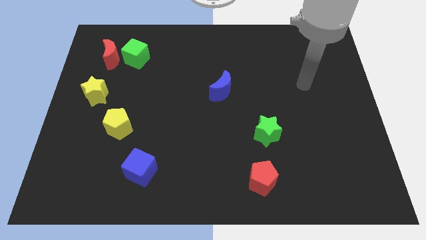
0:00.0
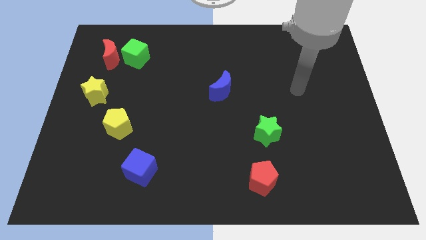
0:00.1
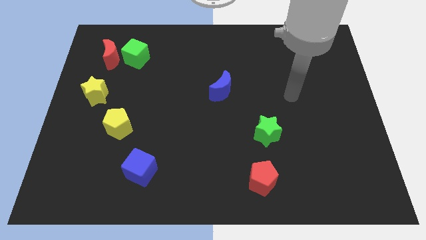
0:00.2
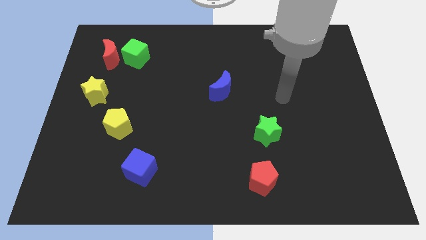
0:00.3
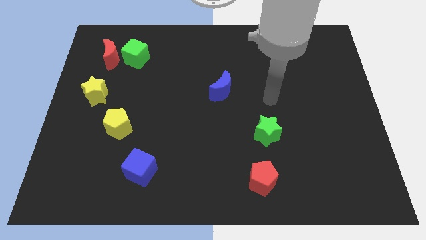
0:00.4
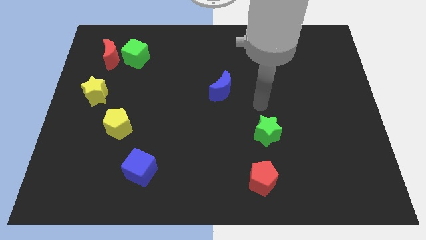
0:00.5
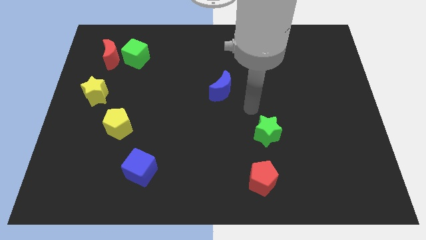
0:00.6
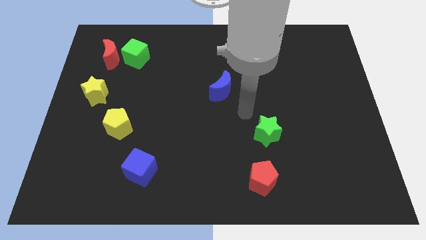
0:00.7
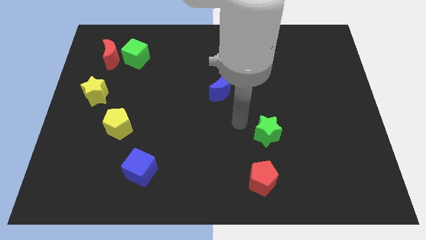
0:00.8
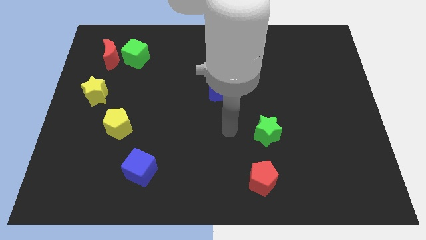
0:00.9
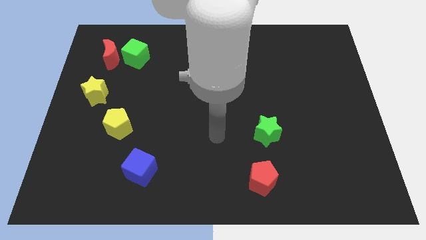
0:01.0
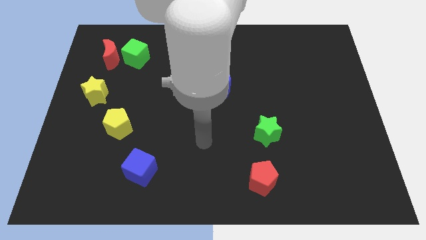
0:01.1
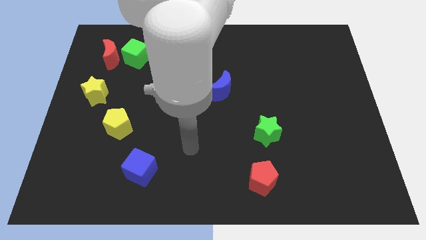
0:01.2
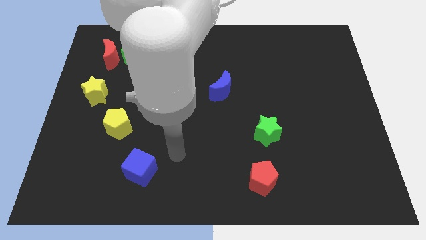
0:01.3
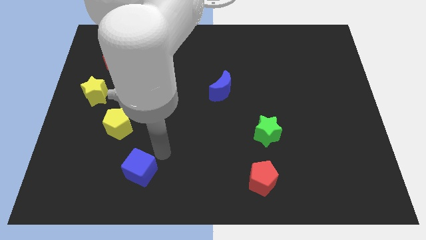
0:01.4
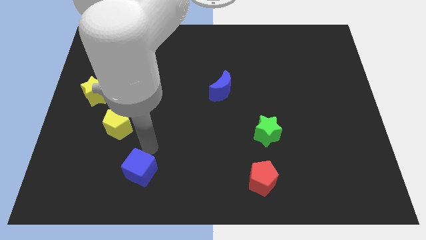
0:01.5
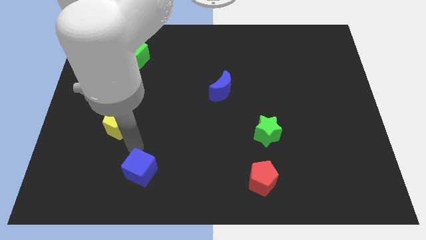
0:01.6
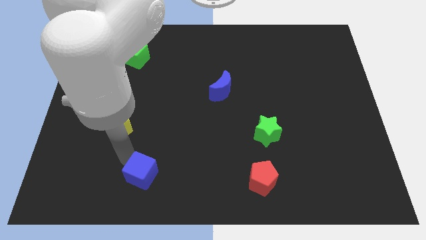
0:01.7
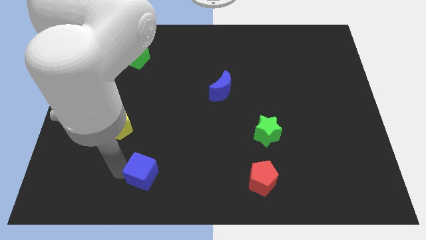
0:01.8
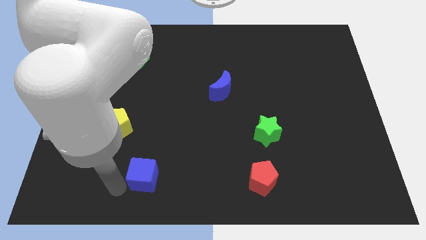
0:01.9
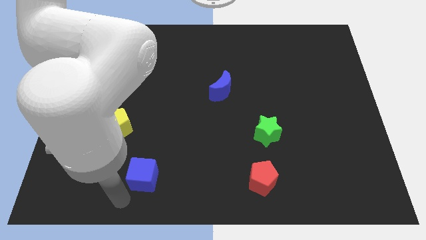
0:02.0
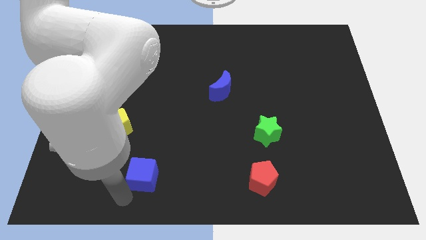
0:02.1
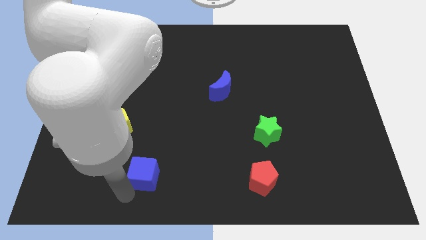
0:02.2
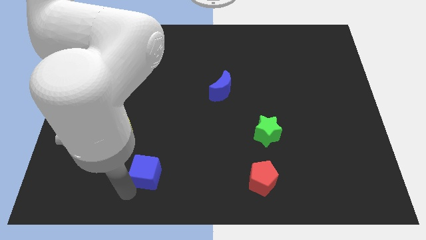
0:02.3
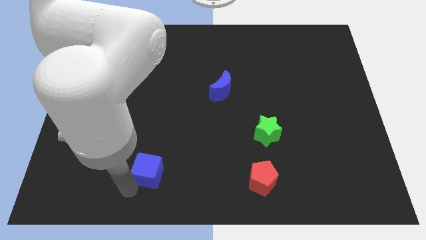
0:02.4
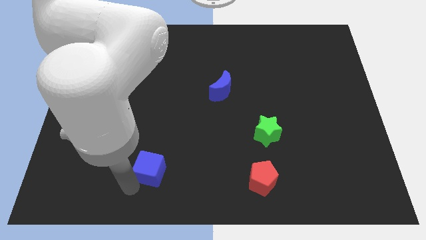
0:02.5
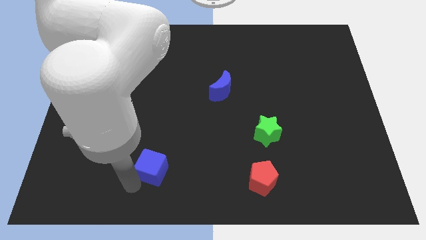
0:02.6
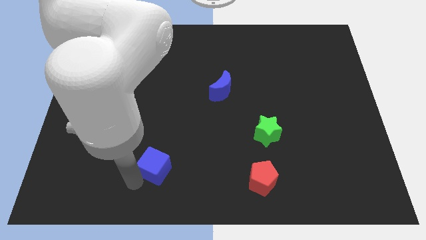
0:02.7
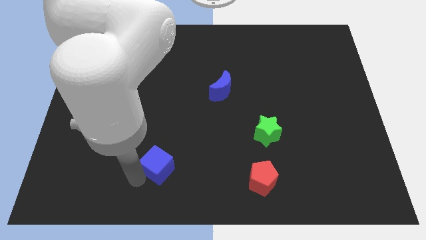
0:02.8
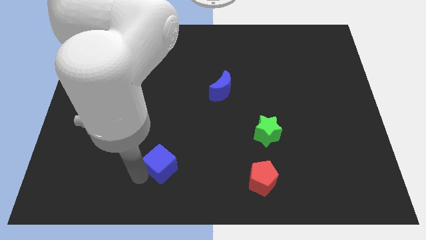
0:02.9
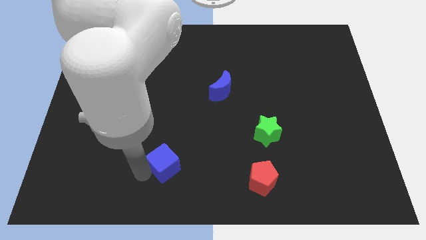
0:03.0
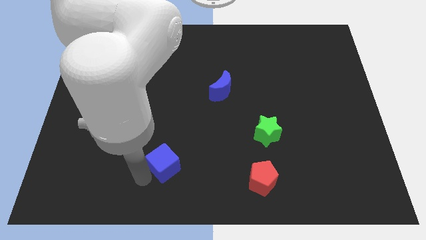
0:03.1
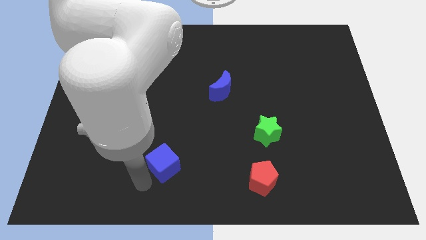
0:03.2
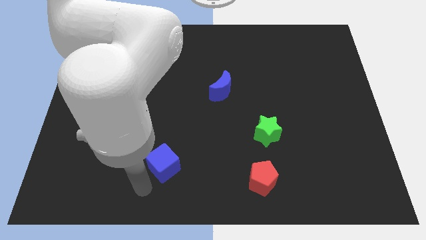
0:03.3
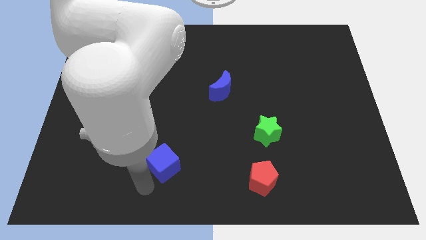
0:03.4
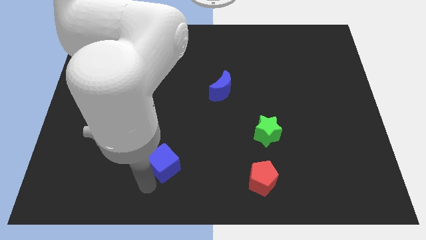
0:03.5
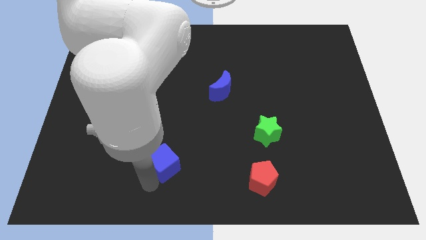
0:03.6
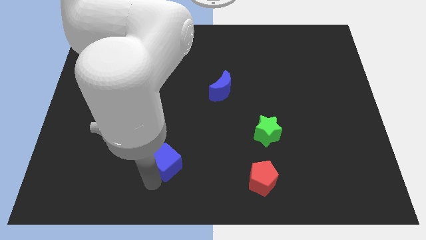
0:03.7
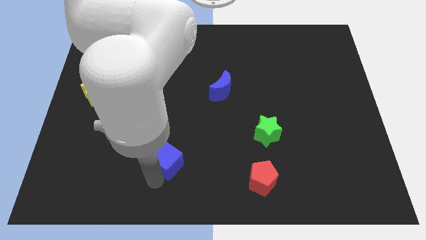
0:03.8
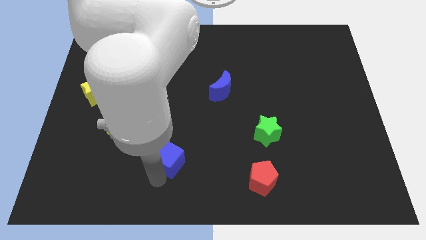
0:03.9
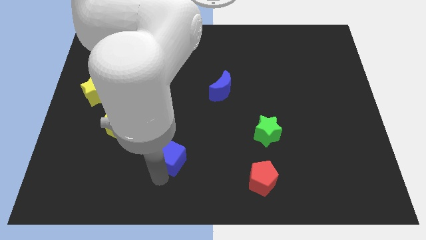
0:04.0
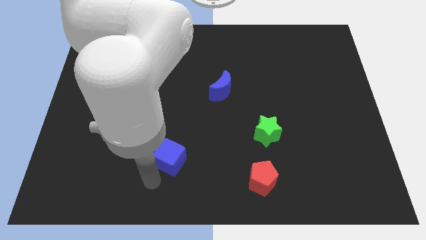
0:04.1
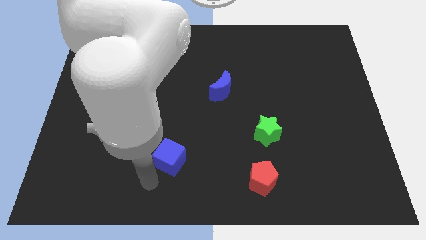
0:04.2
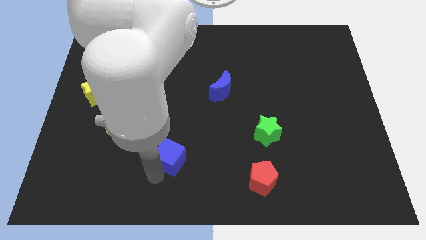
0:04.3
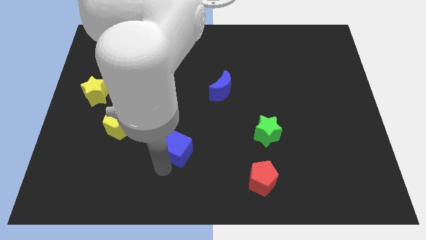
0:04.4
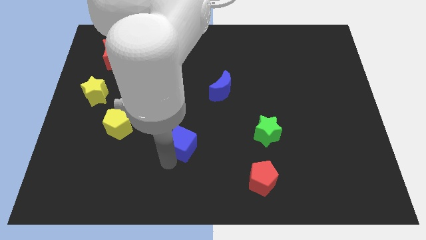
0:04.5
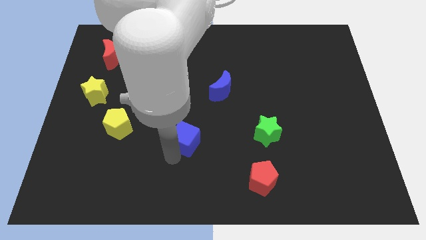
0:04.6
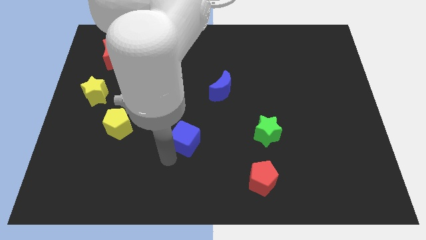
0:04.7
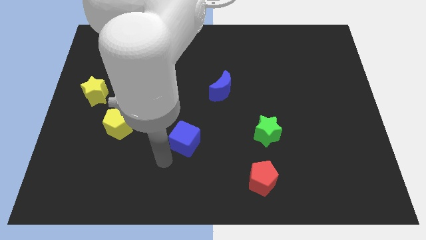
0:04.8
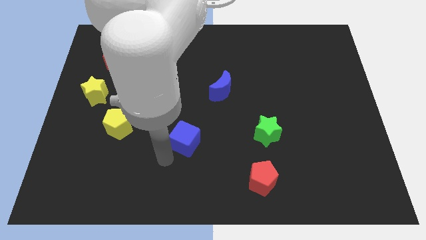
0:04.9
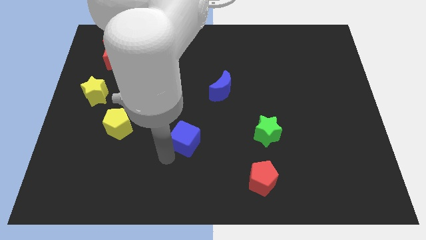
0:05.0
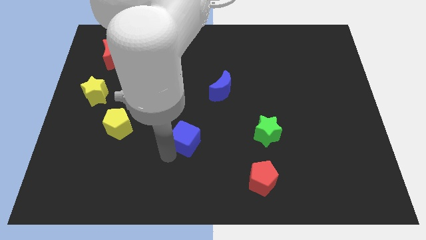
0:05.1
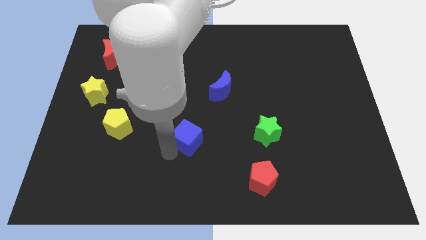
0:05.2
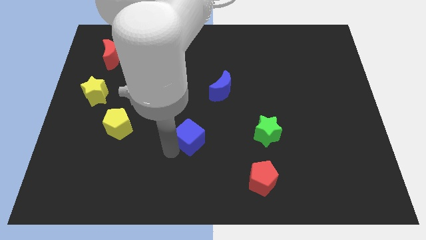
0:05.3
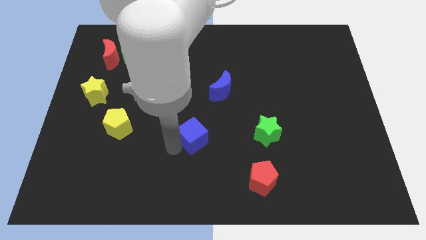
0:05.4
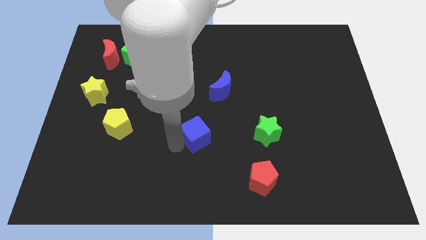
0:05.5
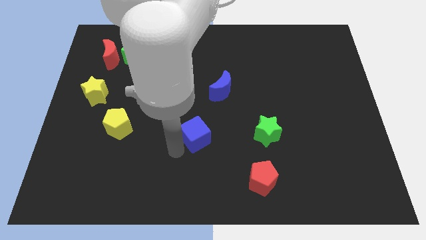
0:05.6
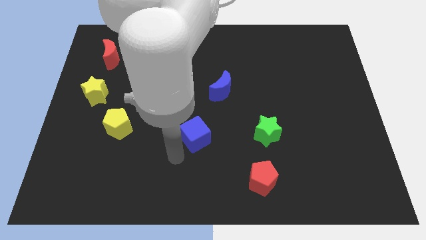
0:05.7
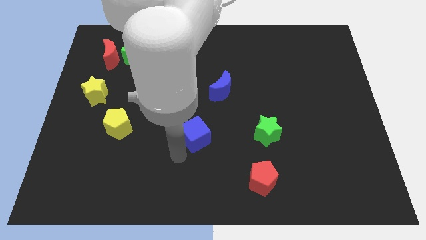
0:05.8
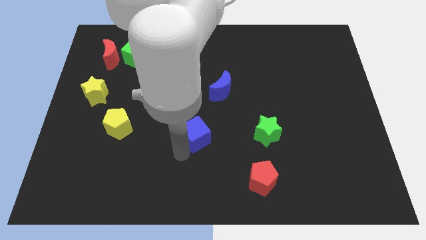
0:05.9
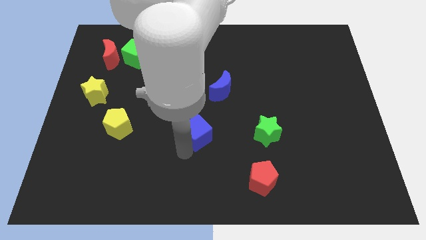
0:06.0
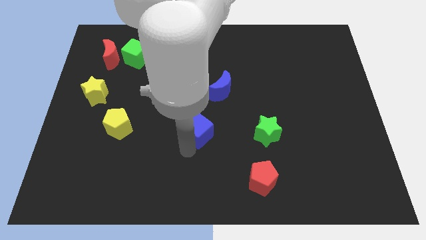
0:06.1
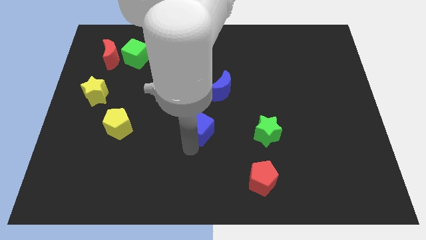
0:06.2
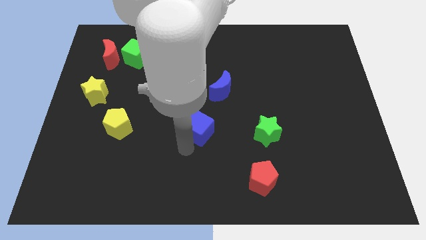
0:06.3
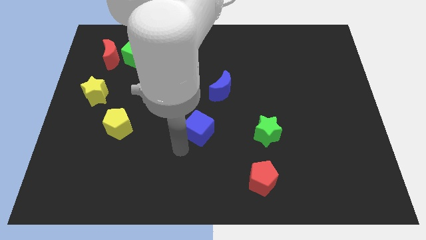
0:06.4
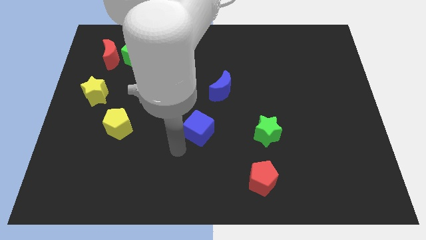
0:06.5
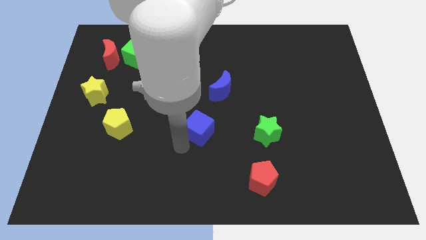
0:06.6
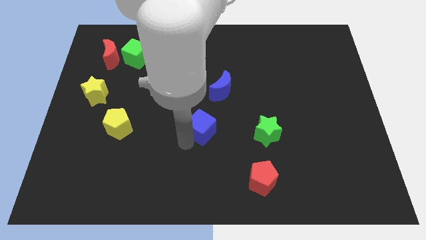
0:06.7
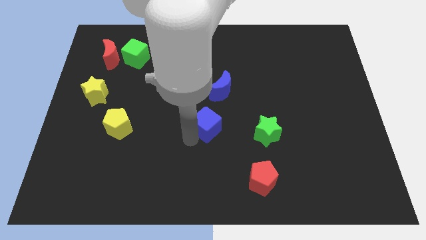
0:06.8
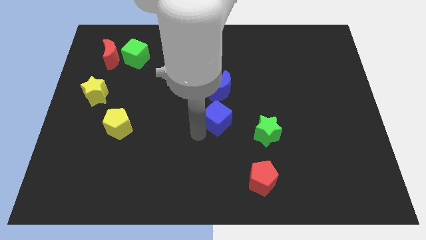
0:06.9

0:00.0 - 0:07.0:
move the blue cube up and right diagonally

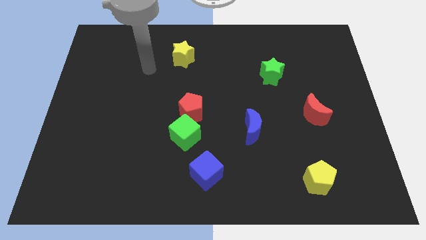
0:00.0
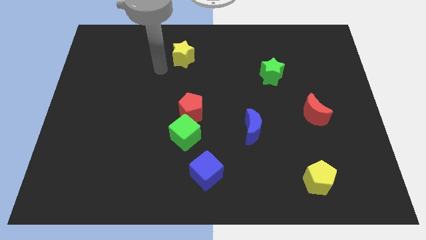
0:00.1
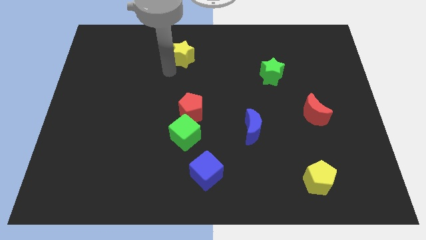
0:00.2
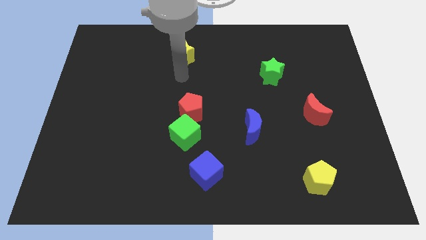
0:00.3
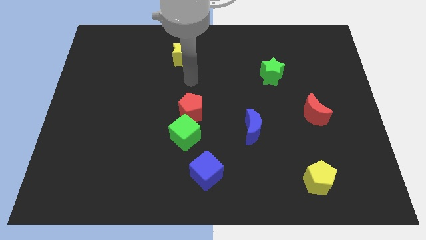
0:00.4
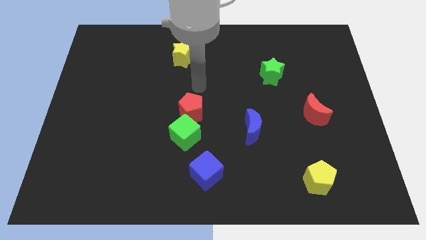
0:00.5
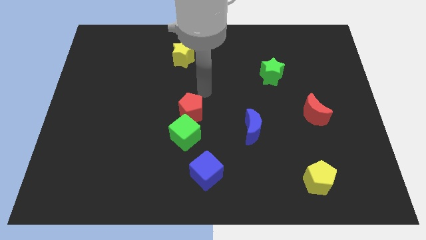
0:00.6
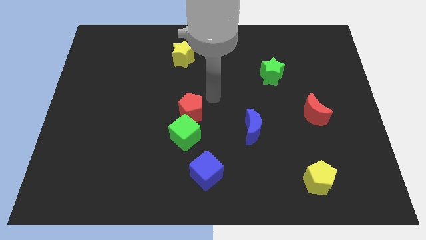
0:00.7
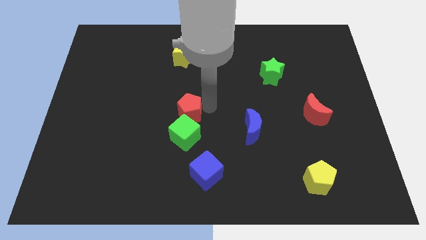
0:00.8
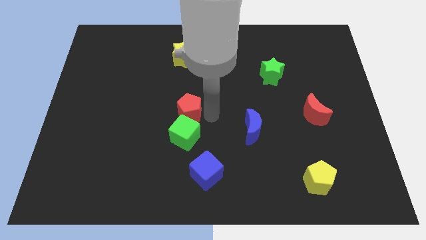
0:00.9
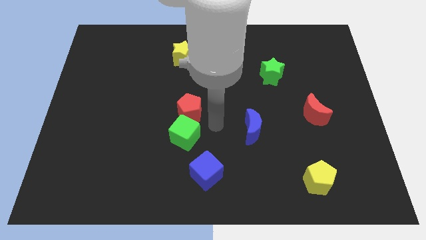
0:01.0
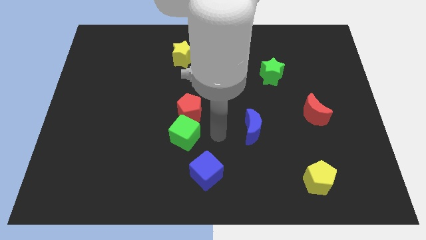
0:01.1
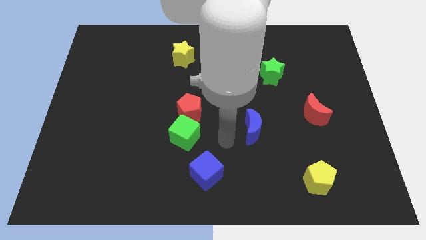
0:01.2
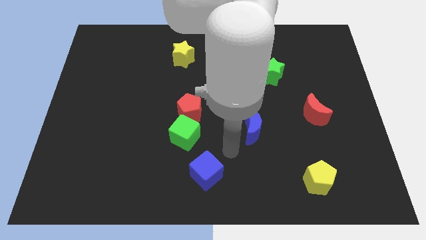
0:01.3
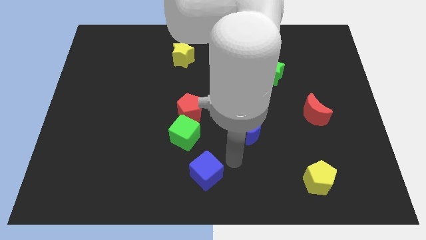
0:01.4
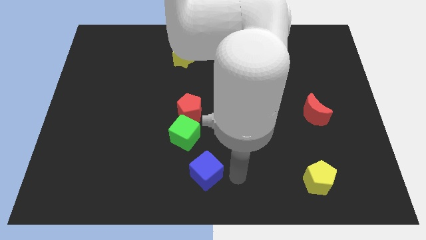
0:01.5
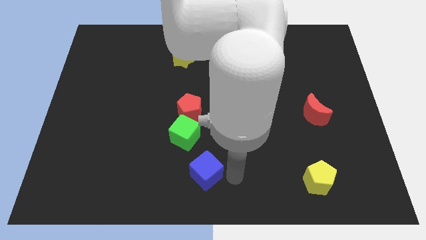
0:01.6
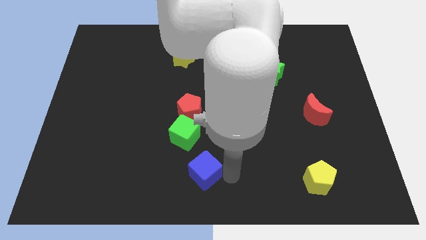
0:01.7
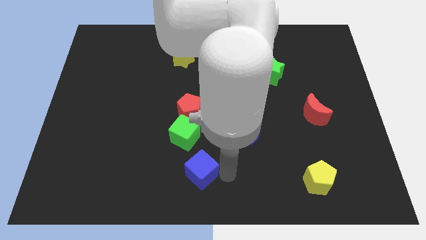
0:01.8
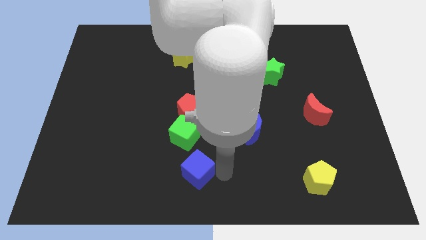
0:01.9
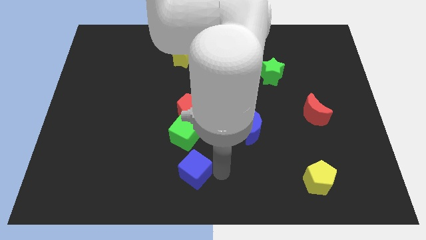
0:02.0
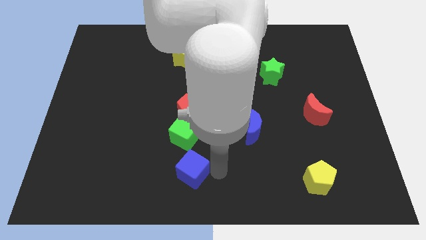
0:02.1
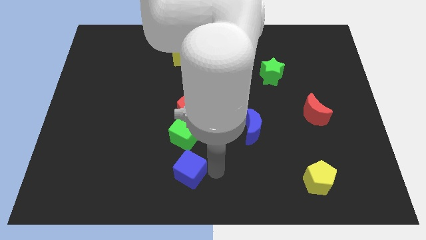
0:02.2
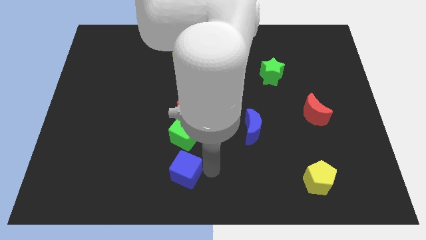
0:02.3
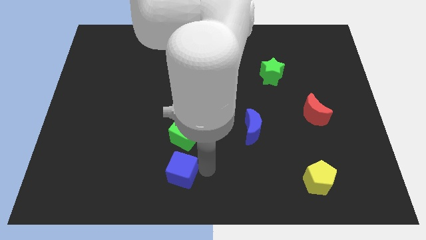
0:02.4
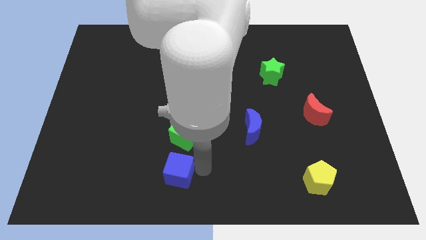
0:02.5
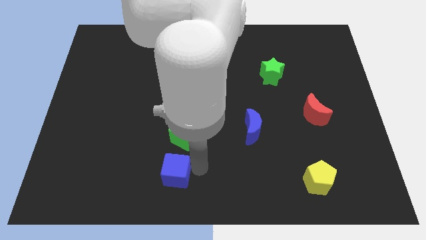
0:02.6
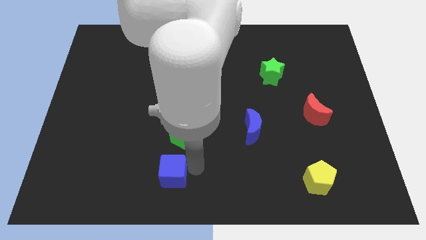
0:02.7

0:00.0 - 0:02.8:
slightly move the blue cube left
